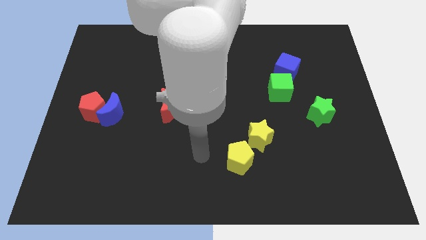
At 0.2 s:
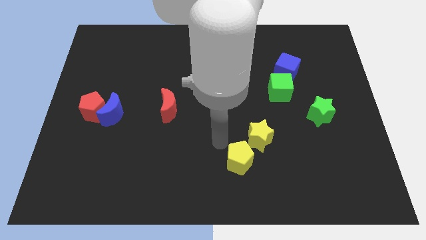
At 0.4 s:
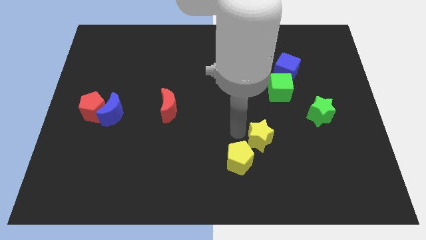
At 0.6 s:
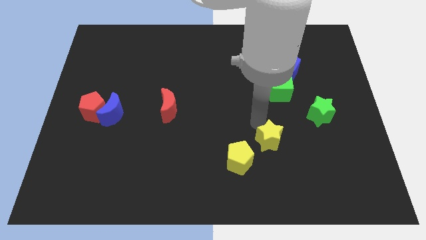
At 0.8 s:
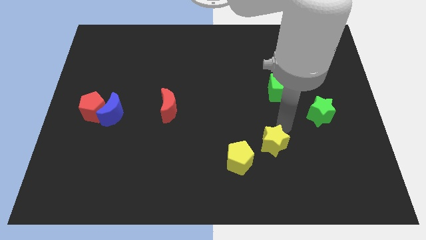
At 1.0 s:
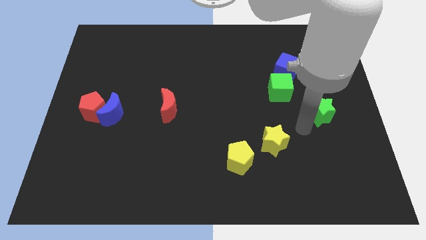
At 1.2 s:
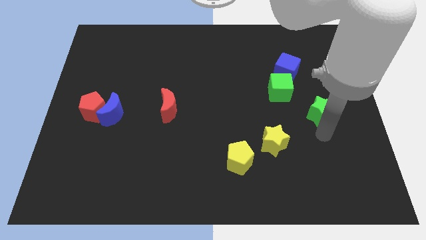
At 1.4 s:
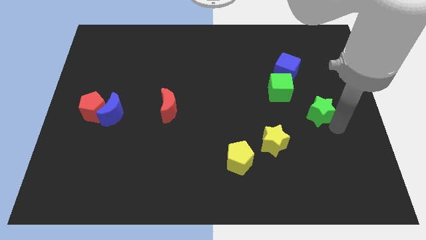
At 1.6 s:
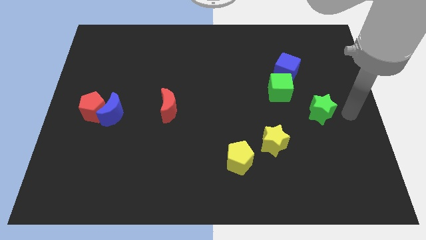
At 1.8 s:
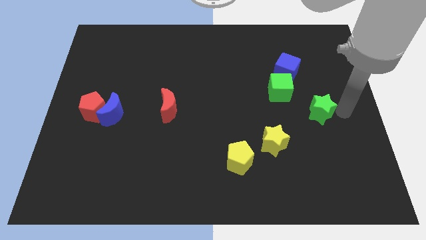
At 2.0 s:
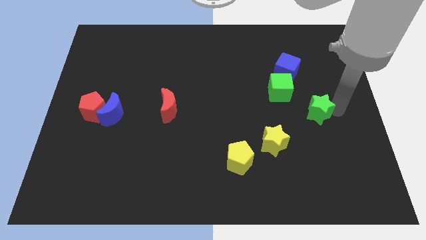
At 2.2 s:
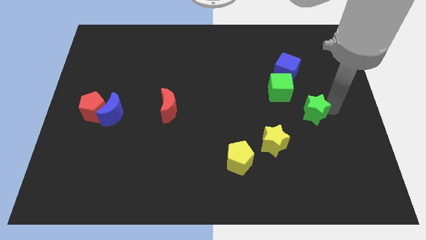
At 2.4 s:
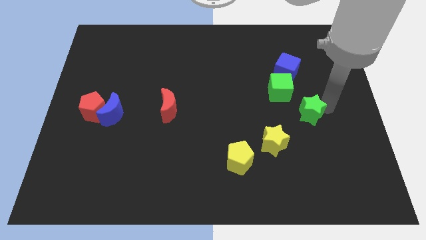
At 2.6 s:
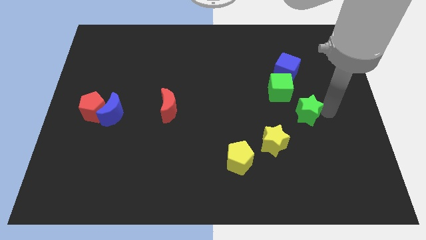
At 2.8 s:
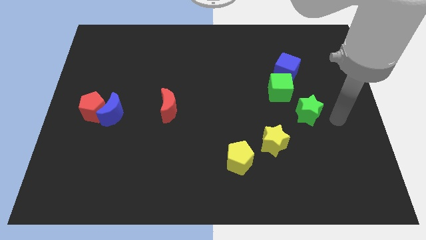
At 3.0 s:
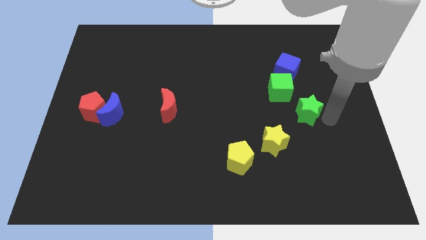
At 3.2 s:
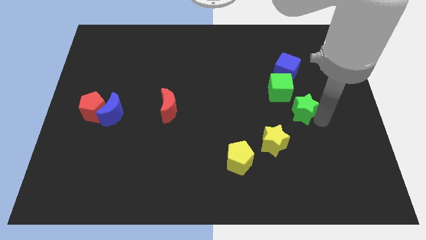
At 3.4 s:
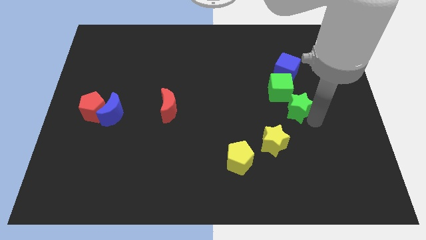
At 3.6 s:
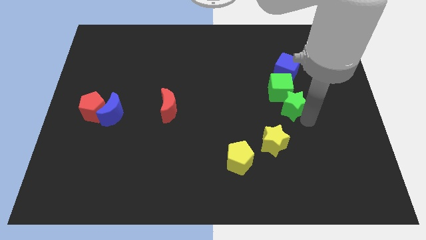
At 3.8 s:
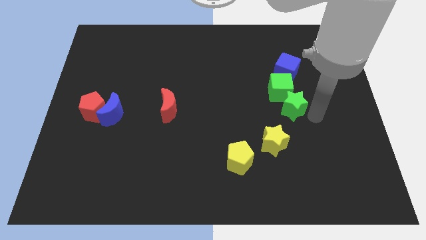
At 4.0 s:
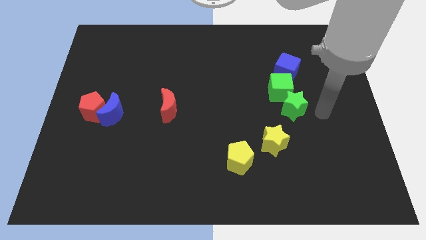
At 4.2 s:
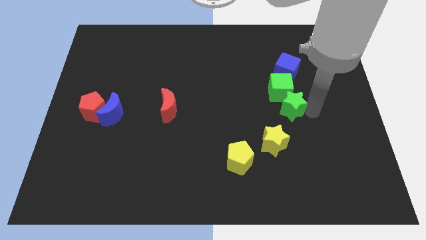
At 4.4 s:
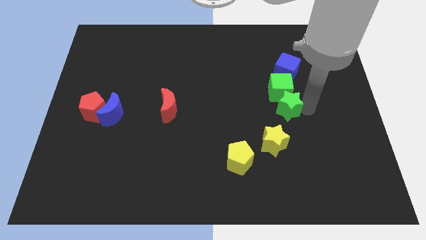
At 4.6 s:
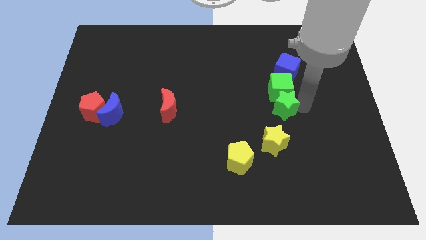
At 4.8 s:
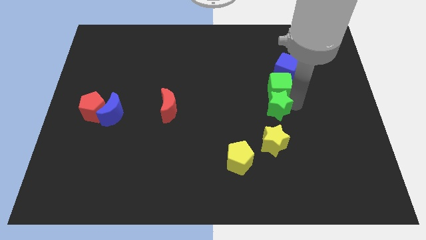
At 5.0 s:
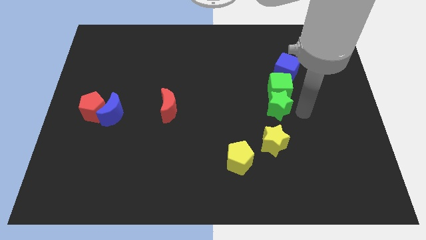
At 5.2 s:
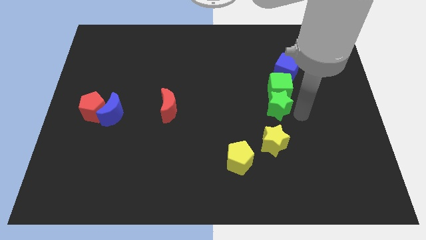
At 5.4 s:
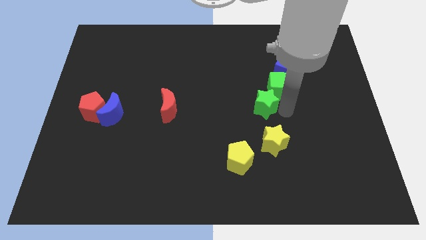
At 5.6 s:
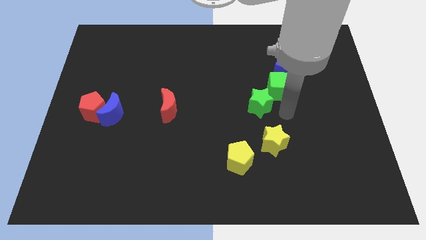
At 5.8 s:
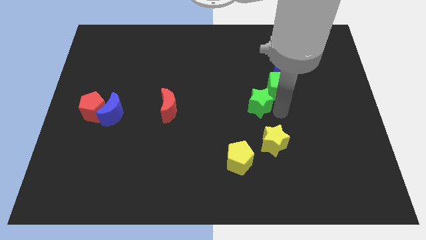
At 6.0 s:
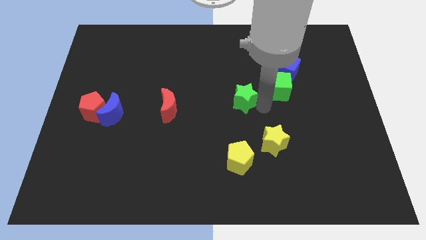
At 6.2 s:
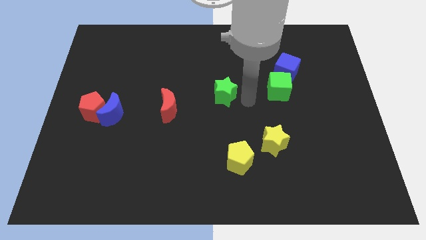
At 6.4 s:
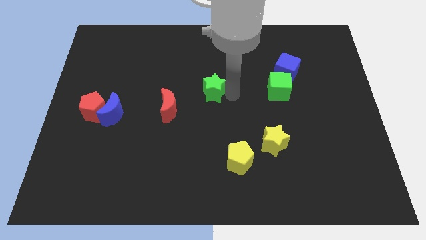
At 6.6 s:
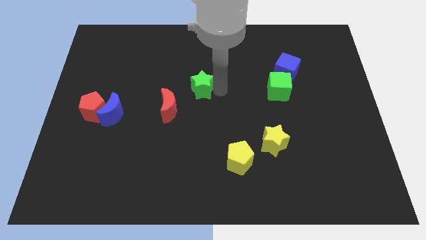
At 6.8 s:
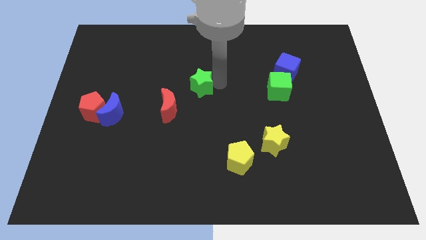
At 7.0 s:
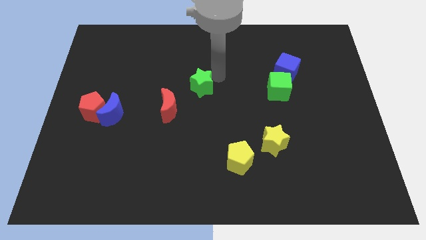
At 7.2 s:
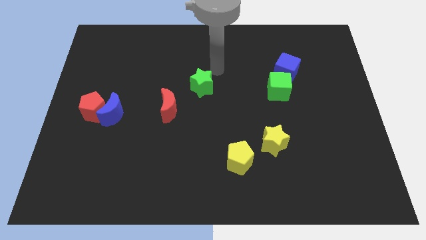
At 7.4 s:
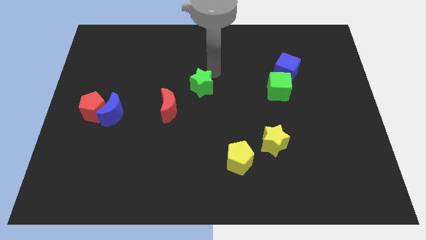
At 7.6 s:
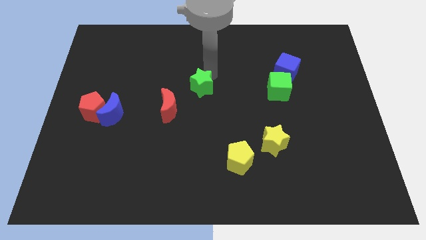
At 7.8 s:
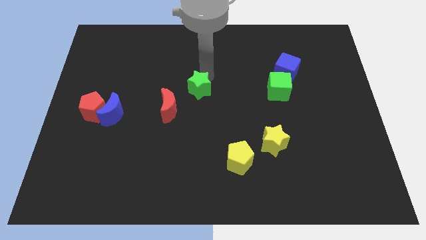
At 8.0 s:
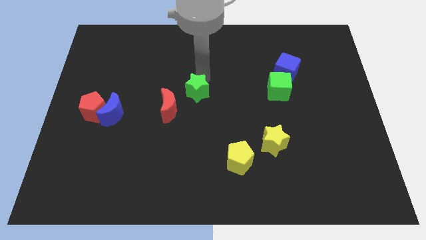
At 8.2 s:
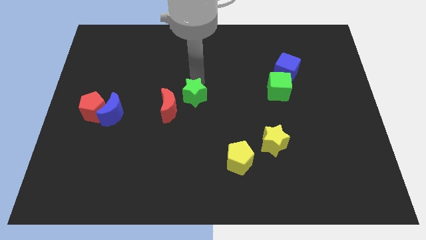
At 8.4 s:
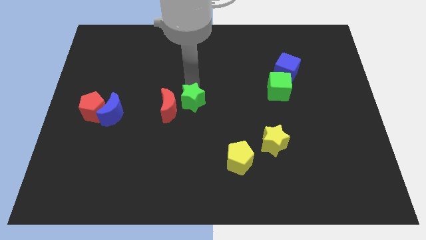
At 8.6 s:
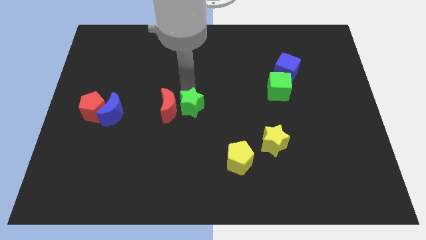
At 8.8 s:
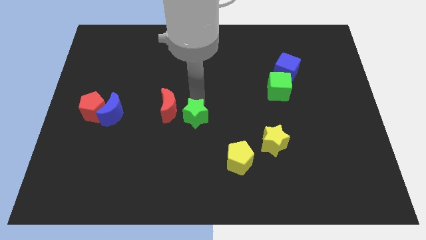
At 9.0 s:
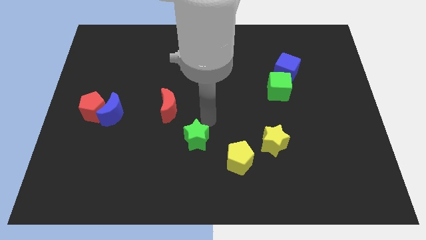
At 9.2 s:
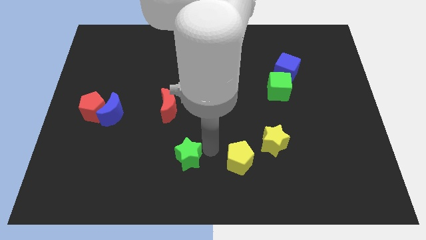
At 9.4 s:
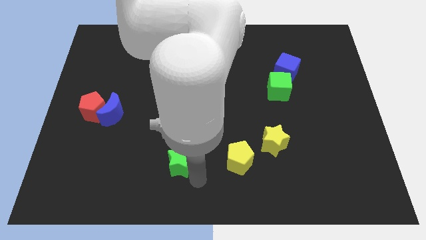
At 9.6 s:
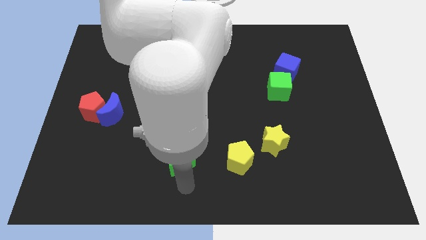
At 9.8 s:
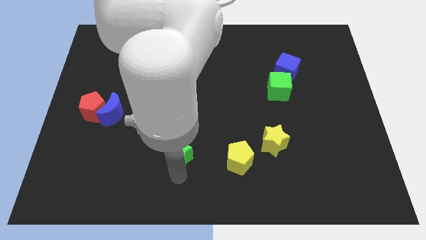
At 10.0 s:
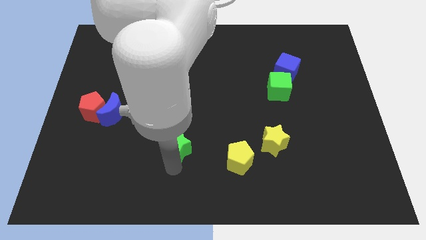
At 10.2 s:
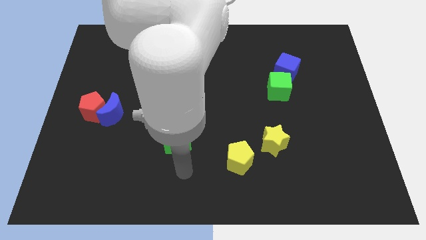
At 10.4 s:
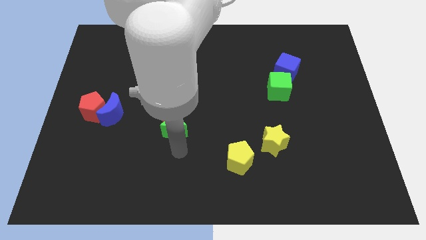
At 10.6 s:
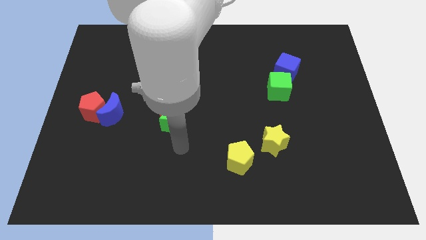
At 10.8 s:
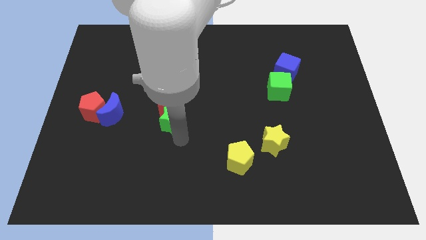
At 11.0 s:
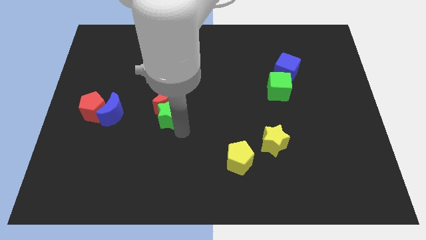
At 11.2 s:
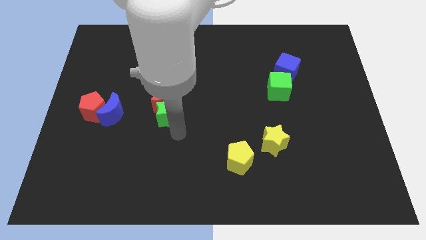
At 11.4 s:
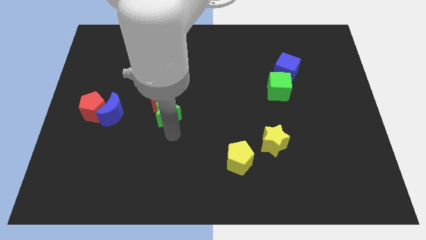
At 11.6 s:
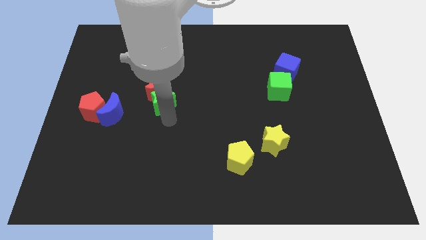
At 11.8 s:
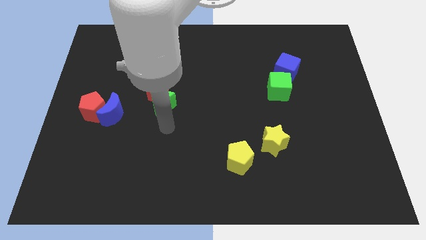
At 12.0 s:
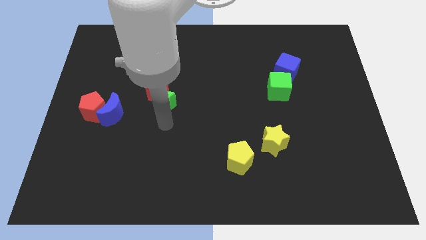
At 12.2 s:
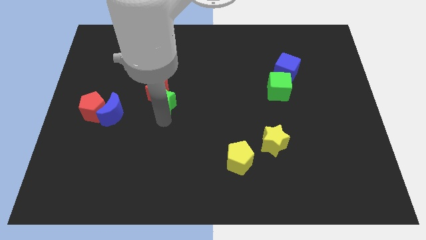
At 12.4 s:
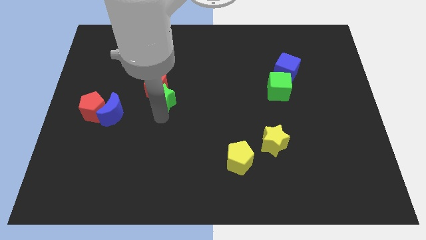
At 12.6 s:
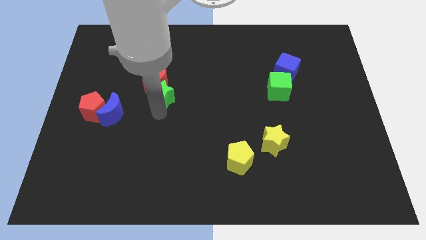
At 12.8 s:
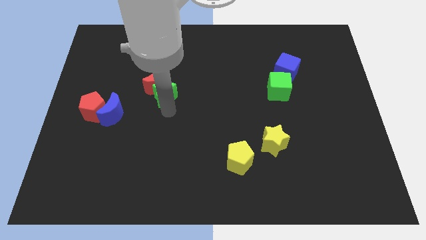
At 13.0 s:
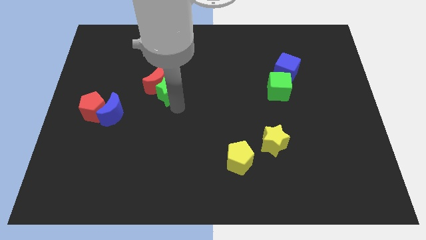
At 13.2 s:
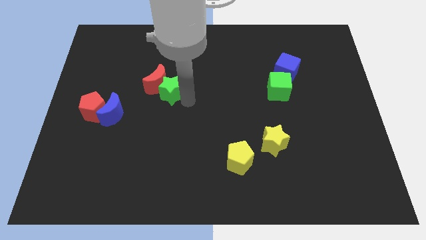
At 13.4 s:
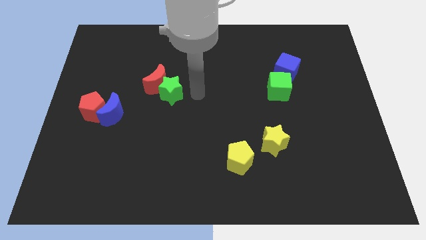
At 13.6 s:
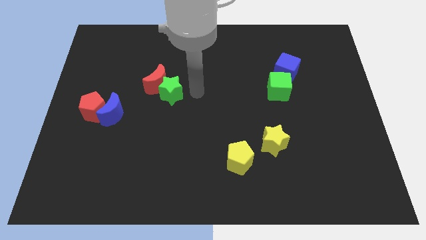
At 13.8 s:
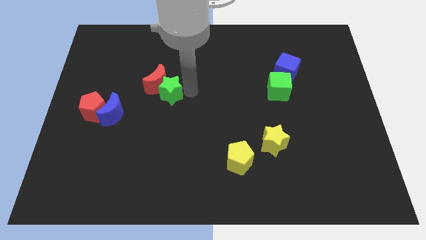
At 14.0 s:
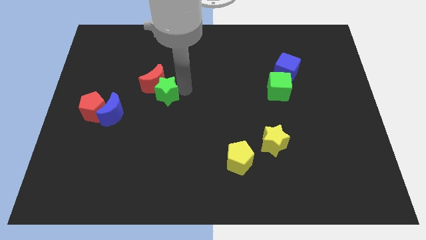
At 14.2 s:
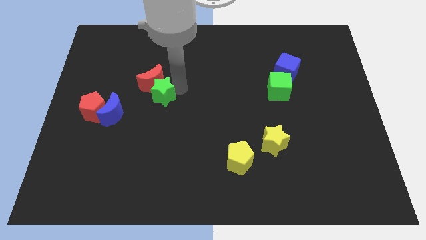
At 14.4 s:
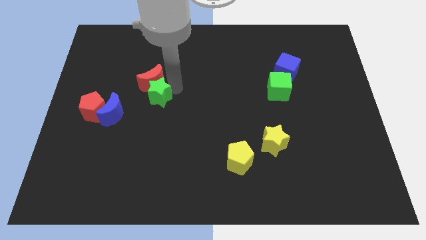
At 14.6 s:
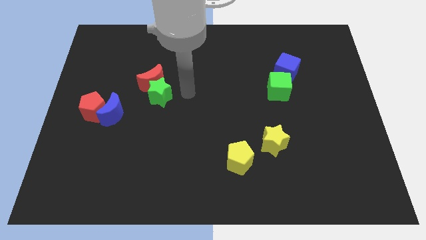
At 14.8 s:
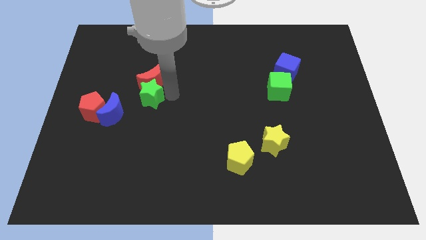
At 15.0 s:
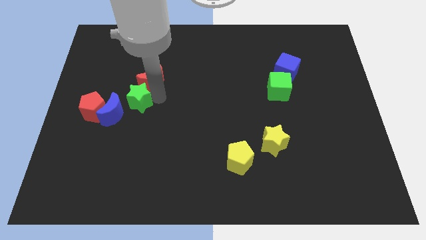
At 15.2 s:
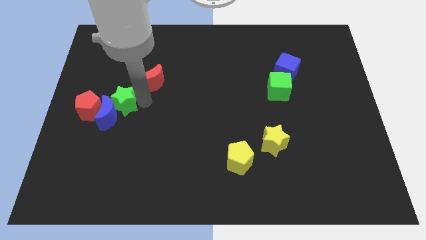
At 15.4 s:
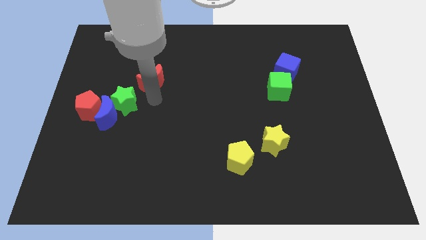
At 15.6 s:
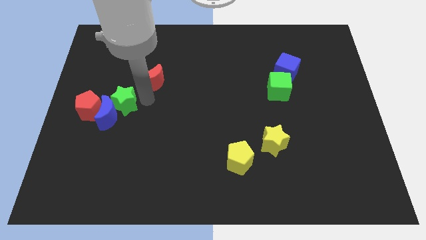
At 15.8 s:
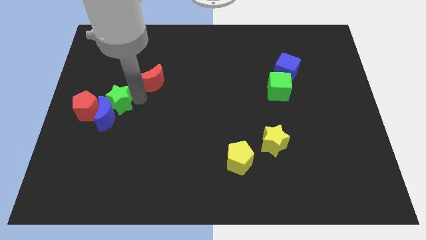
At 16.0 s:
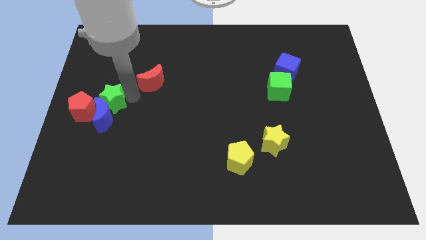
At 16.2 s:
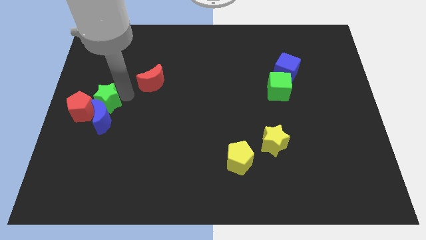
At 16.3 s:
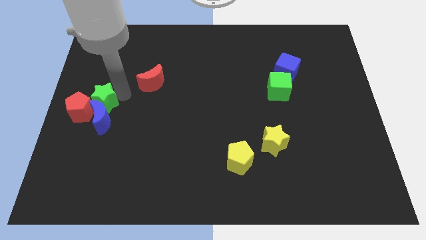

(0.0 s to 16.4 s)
slide the green star next to the red pentagon
